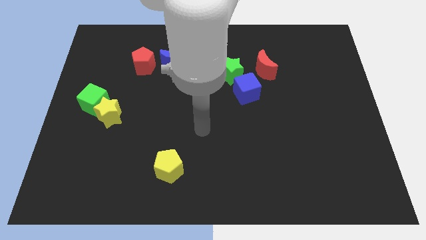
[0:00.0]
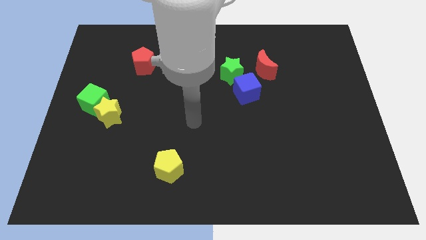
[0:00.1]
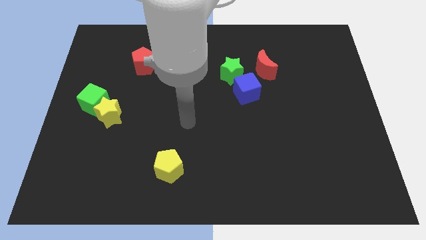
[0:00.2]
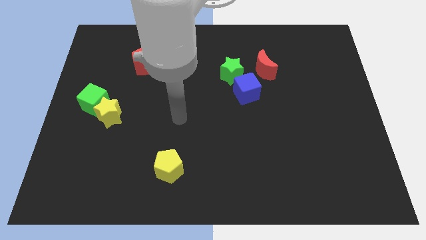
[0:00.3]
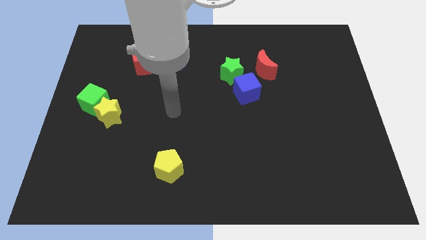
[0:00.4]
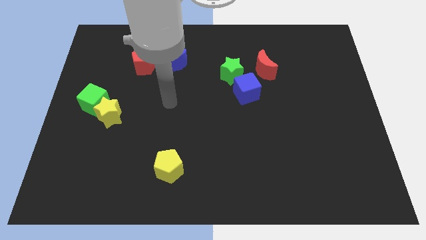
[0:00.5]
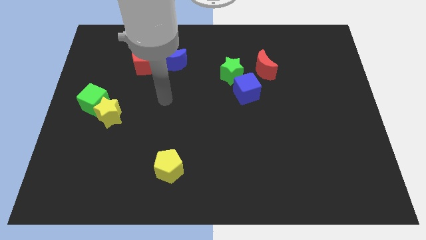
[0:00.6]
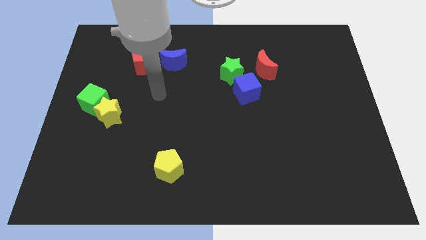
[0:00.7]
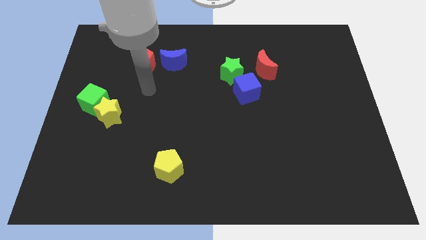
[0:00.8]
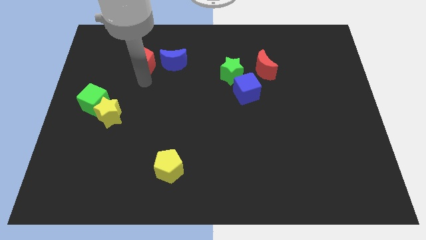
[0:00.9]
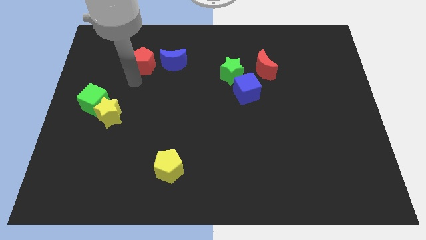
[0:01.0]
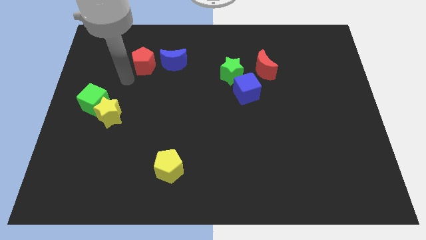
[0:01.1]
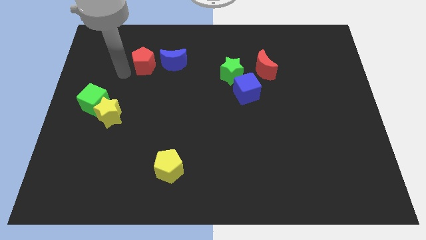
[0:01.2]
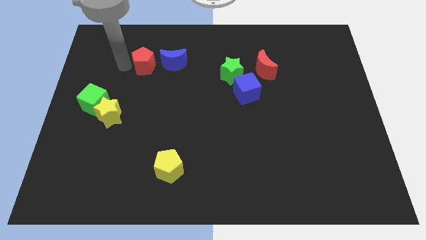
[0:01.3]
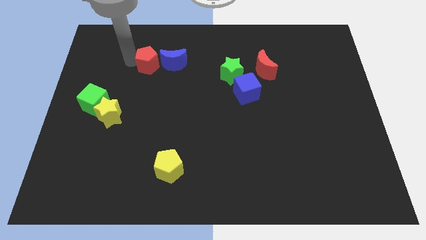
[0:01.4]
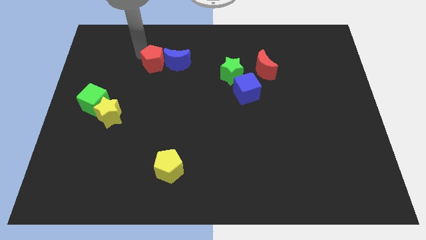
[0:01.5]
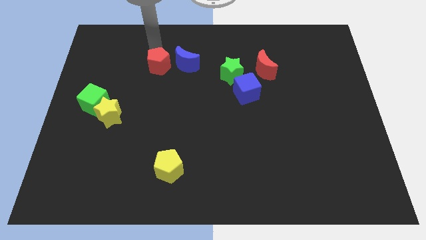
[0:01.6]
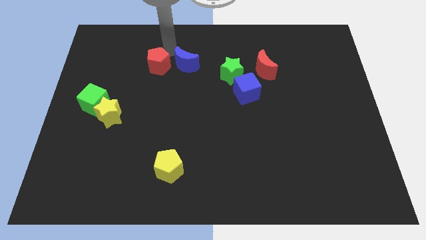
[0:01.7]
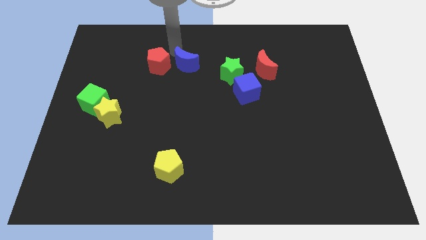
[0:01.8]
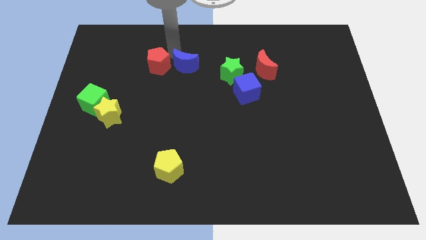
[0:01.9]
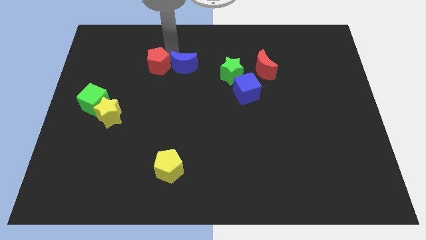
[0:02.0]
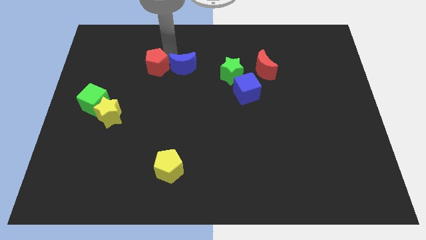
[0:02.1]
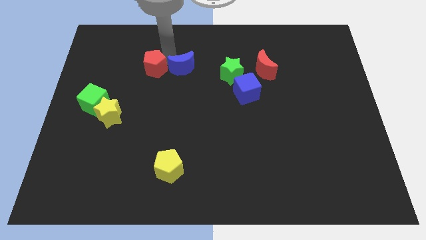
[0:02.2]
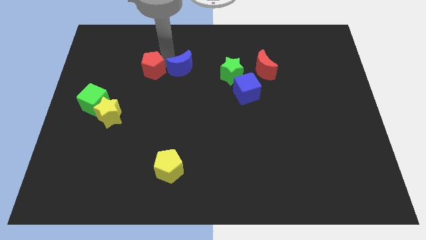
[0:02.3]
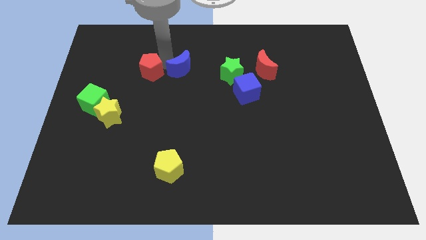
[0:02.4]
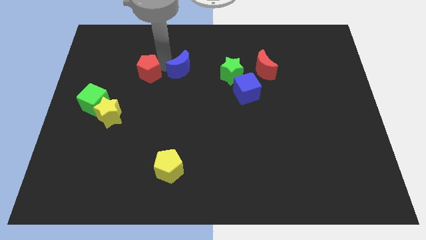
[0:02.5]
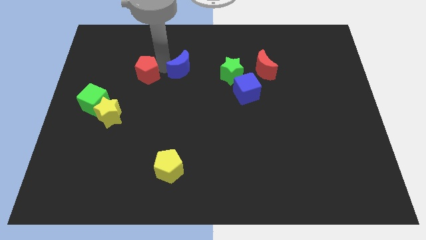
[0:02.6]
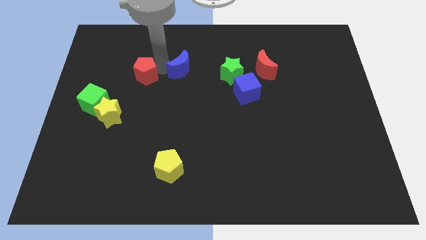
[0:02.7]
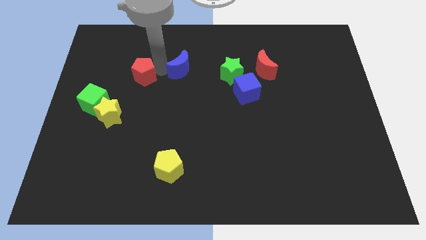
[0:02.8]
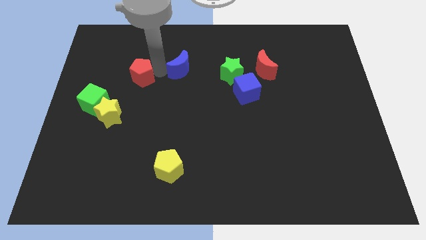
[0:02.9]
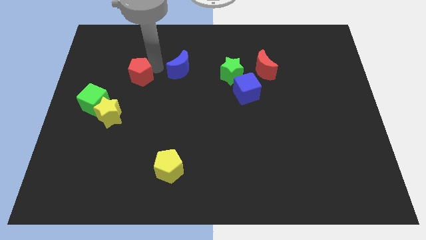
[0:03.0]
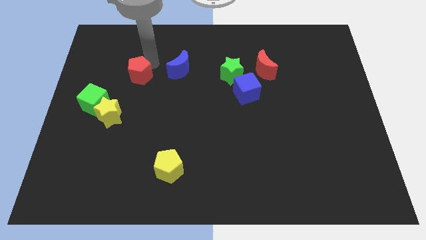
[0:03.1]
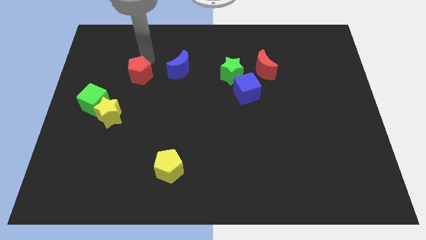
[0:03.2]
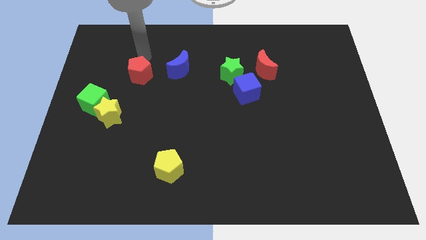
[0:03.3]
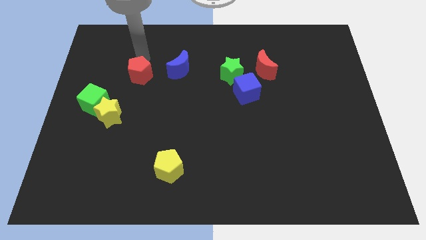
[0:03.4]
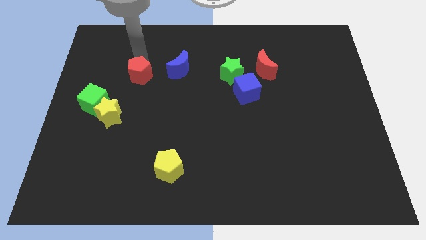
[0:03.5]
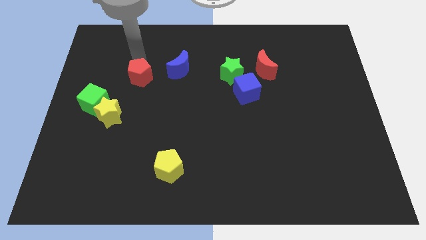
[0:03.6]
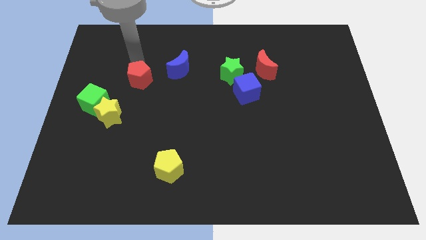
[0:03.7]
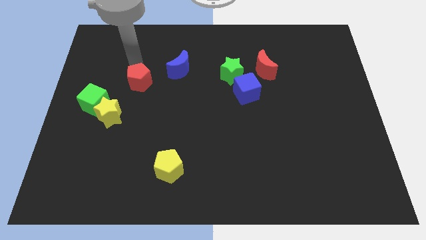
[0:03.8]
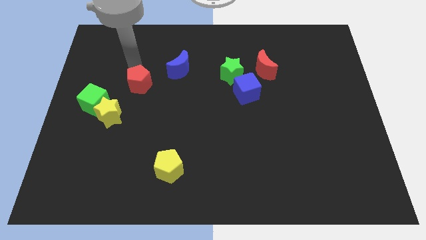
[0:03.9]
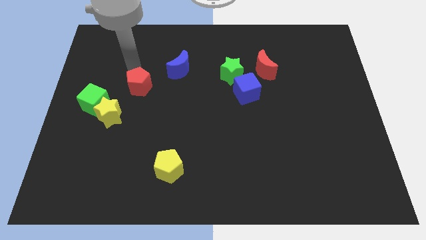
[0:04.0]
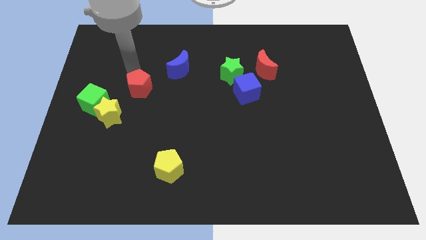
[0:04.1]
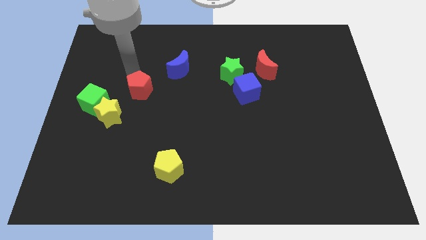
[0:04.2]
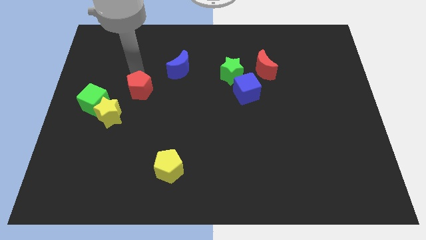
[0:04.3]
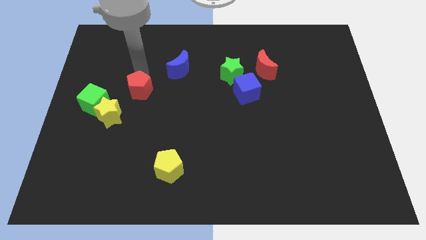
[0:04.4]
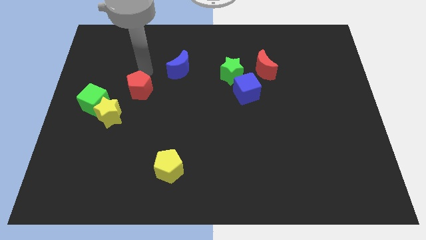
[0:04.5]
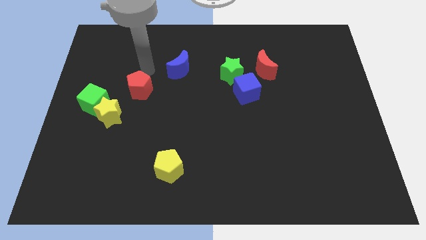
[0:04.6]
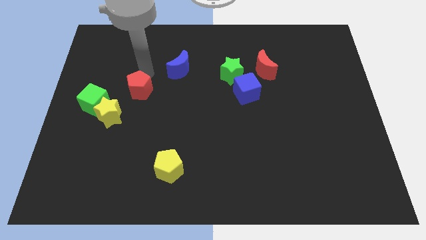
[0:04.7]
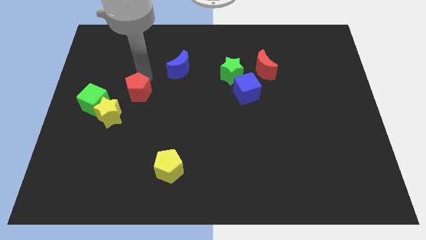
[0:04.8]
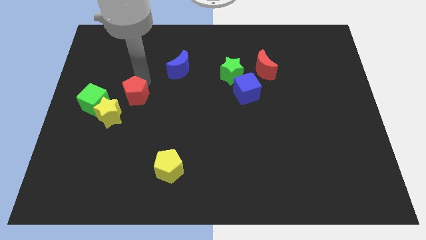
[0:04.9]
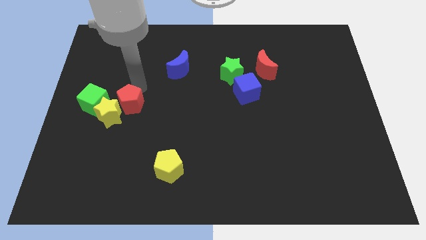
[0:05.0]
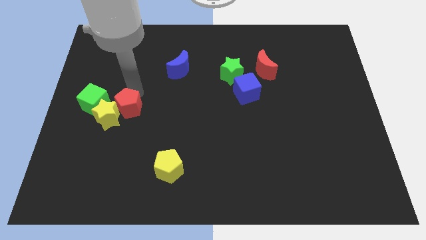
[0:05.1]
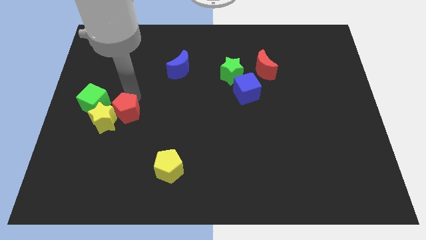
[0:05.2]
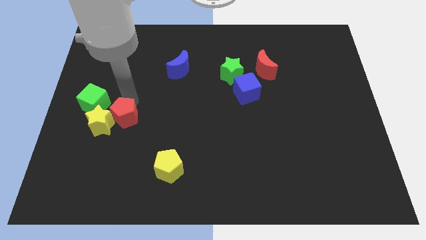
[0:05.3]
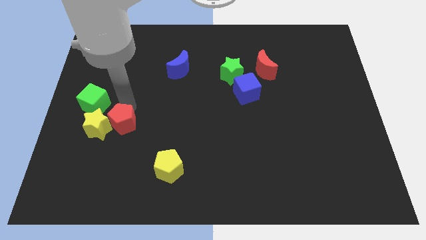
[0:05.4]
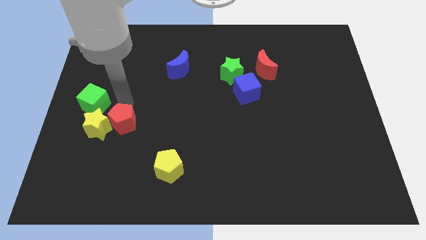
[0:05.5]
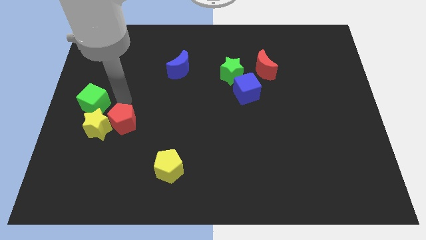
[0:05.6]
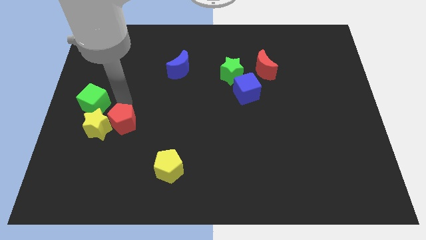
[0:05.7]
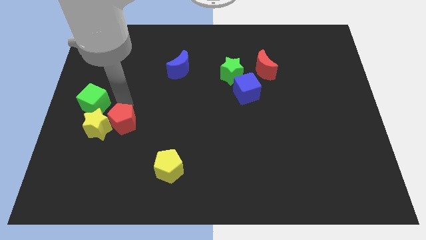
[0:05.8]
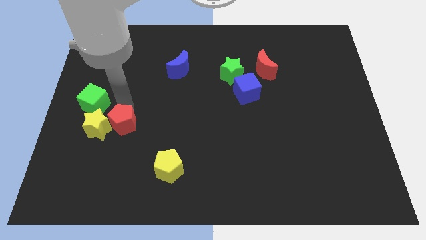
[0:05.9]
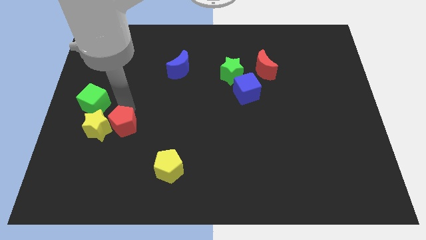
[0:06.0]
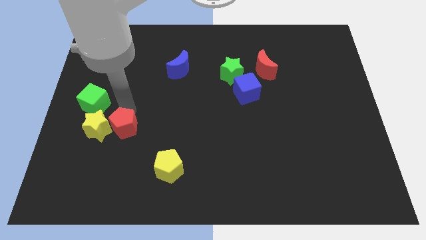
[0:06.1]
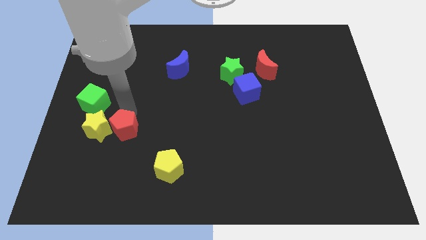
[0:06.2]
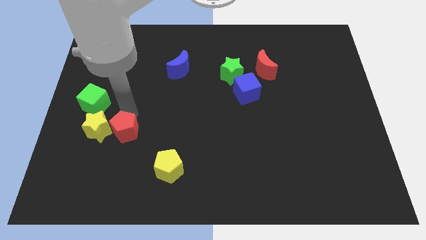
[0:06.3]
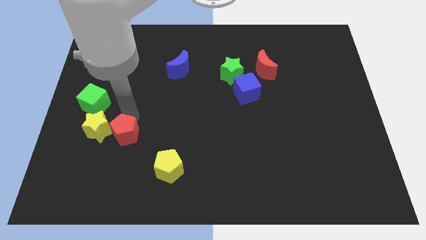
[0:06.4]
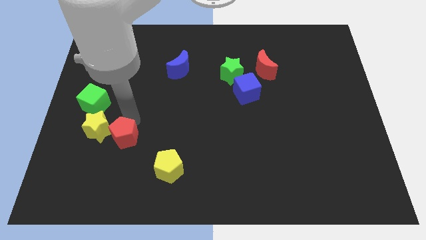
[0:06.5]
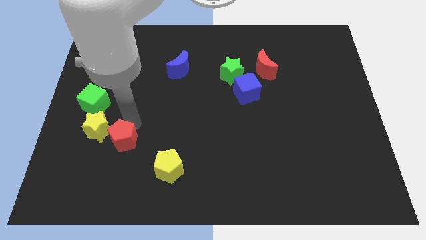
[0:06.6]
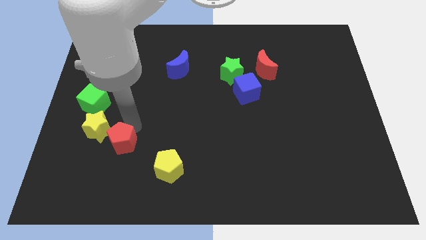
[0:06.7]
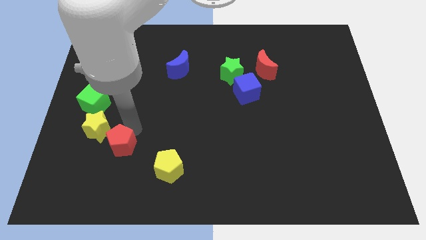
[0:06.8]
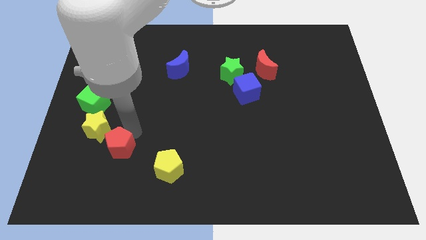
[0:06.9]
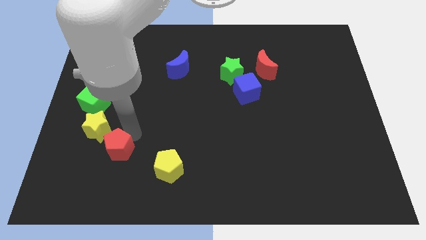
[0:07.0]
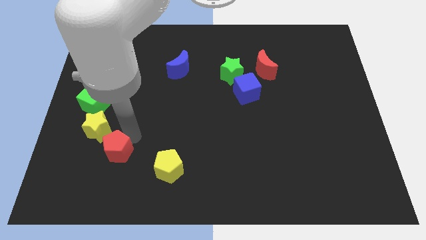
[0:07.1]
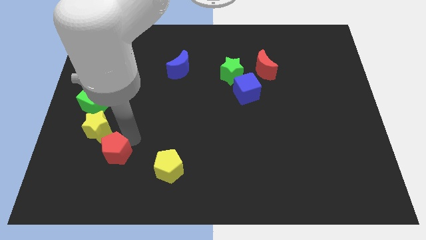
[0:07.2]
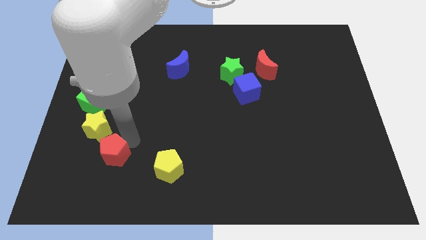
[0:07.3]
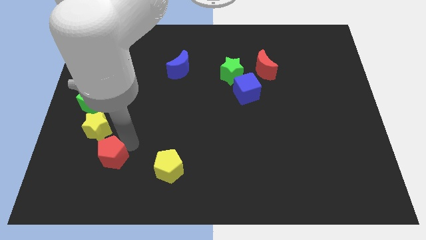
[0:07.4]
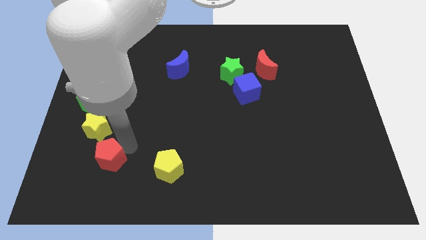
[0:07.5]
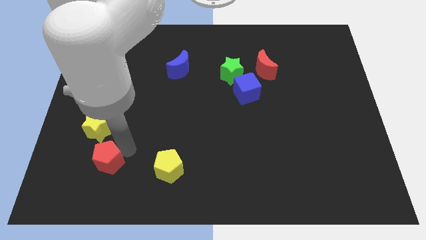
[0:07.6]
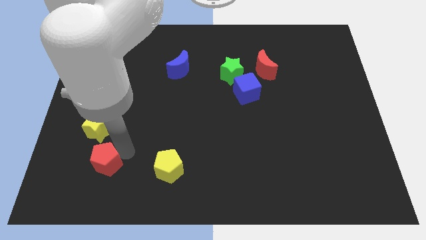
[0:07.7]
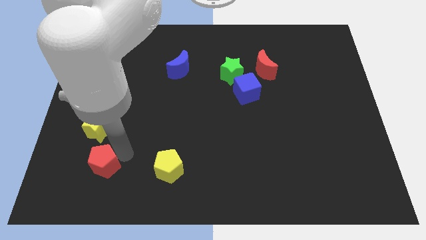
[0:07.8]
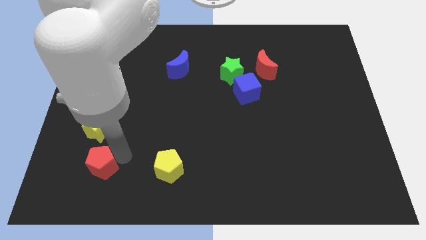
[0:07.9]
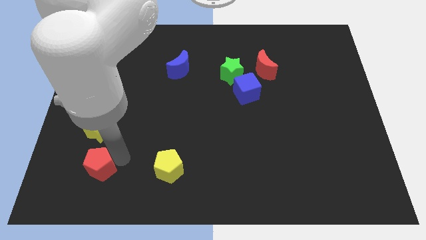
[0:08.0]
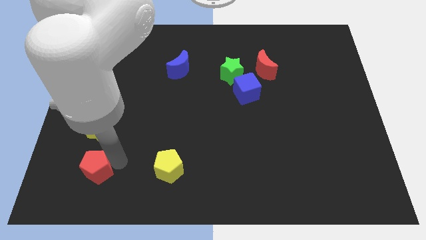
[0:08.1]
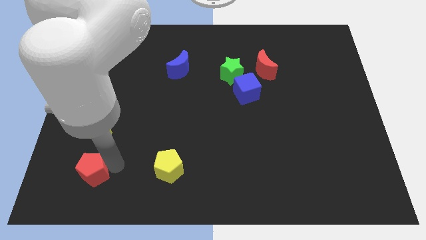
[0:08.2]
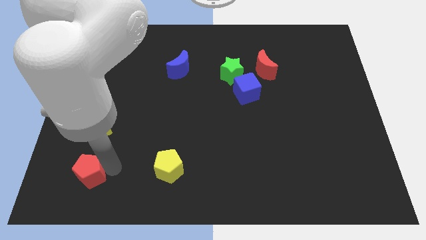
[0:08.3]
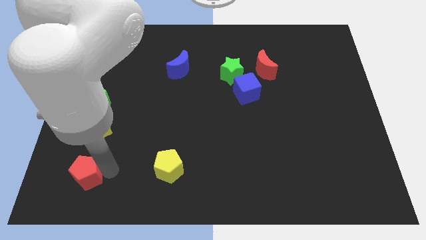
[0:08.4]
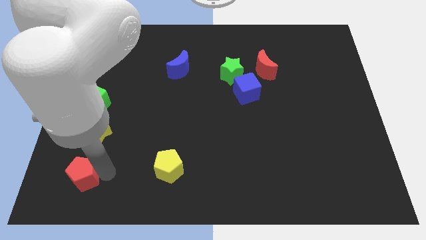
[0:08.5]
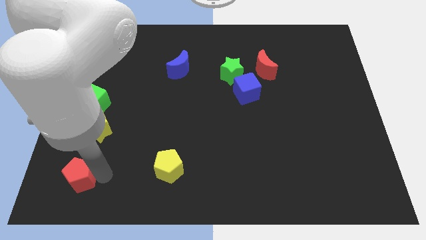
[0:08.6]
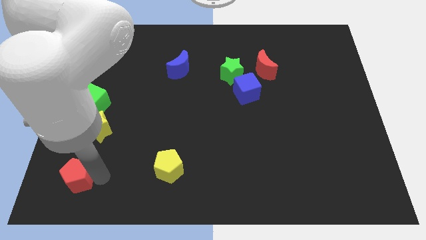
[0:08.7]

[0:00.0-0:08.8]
put the red pentagon to the bottom left
